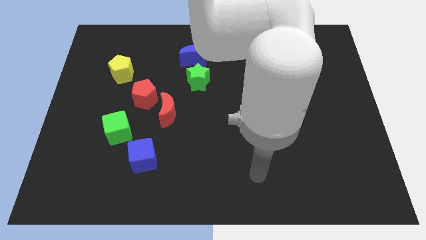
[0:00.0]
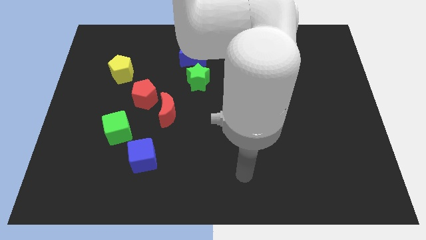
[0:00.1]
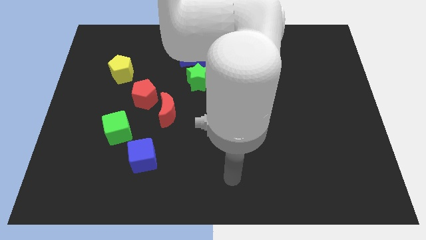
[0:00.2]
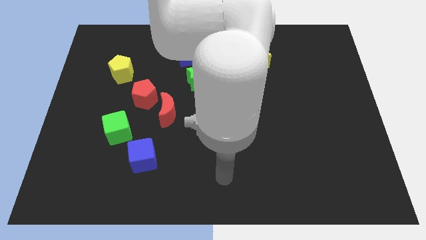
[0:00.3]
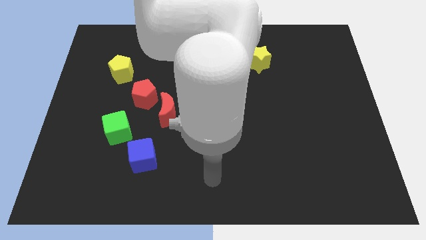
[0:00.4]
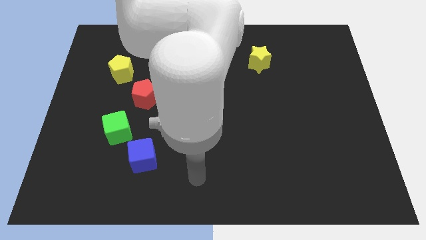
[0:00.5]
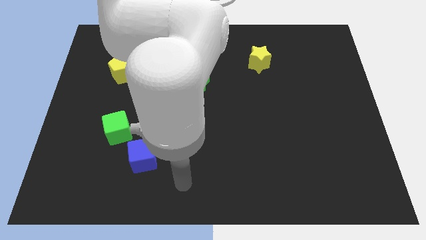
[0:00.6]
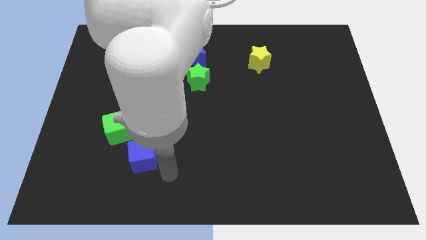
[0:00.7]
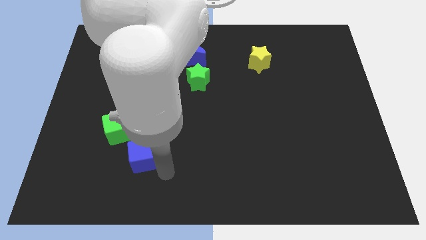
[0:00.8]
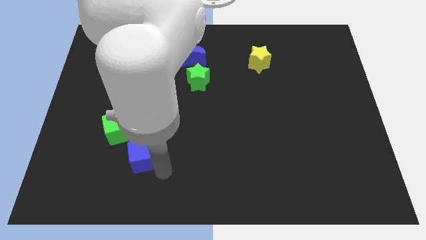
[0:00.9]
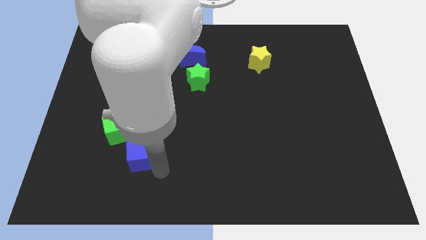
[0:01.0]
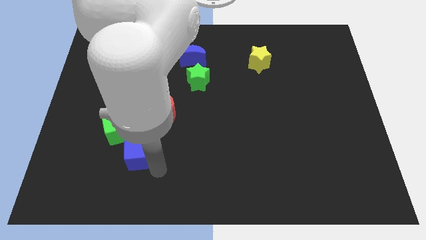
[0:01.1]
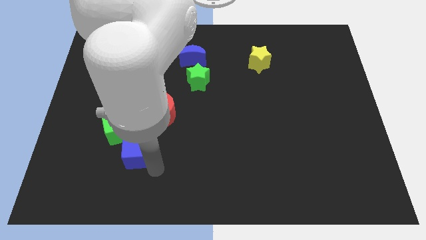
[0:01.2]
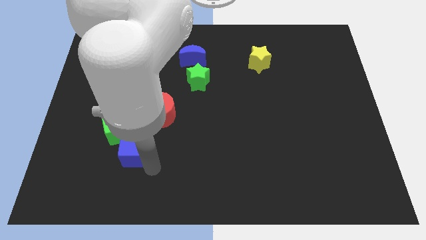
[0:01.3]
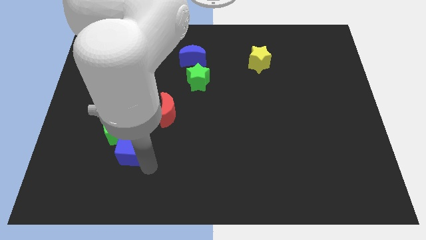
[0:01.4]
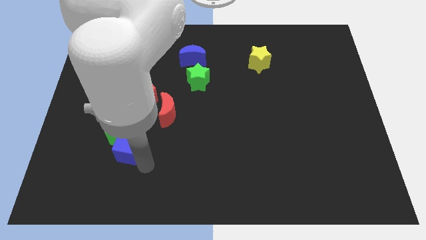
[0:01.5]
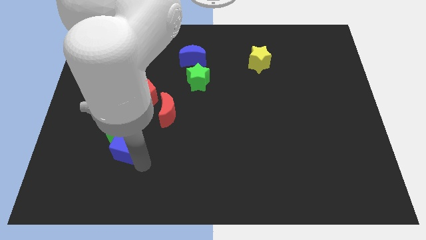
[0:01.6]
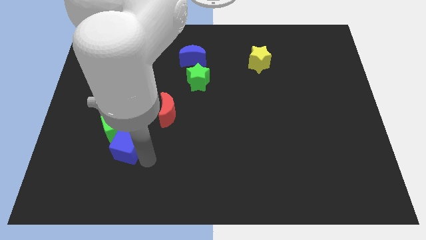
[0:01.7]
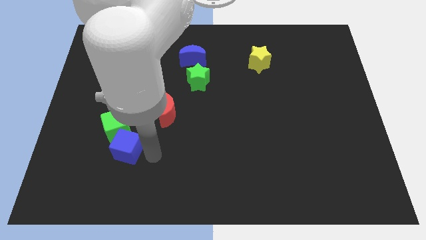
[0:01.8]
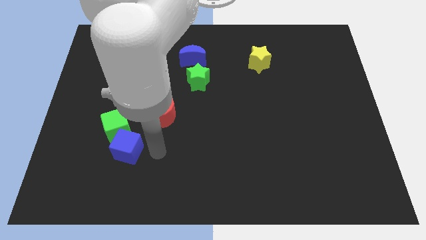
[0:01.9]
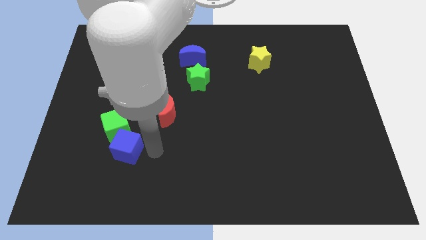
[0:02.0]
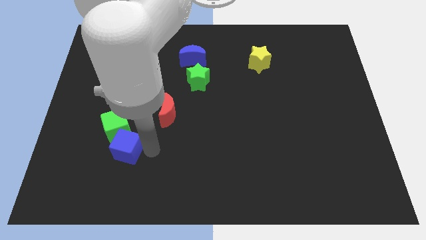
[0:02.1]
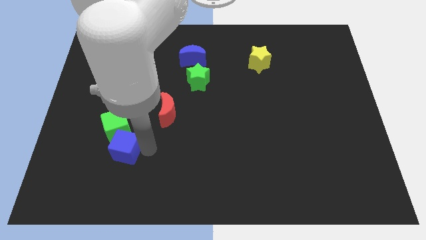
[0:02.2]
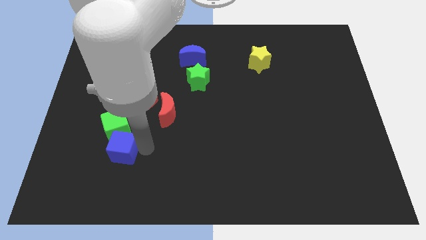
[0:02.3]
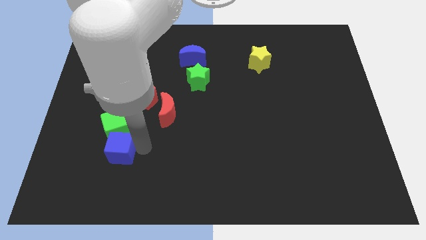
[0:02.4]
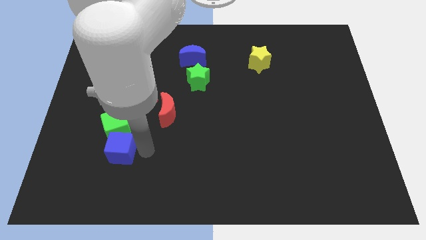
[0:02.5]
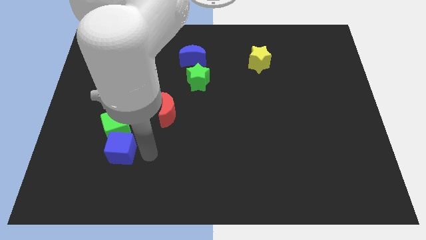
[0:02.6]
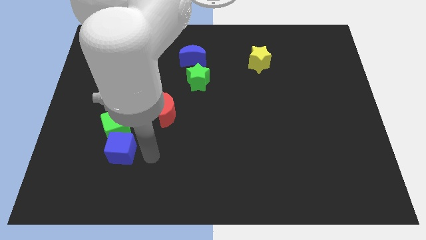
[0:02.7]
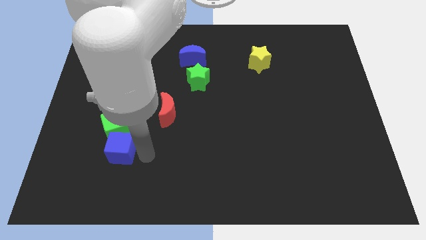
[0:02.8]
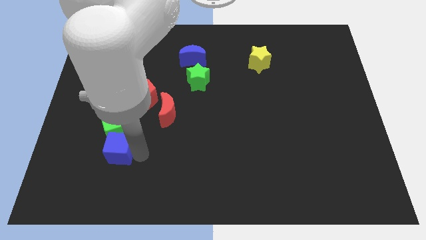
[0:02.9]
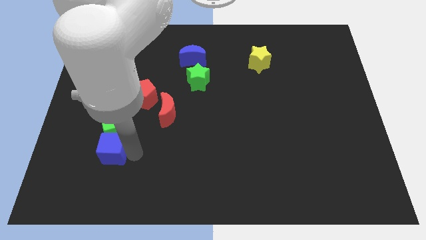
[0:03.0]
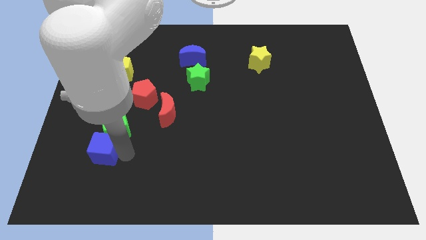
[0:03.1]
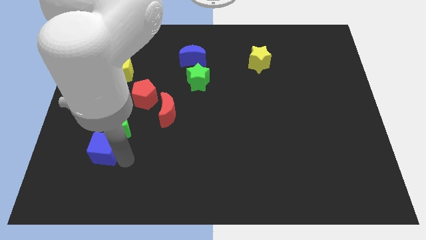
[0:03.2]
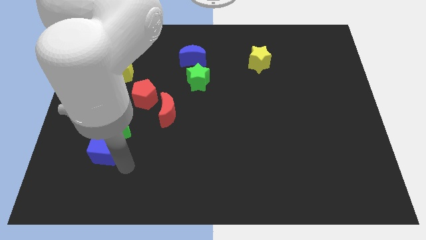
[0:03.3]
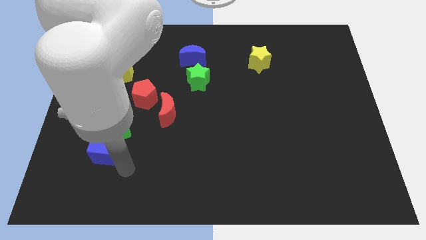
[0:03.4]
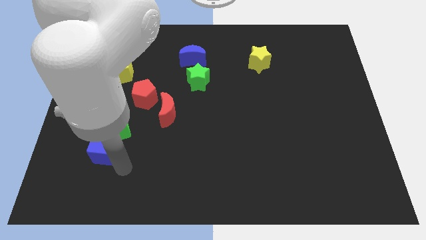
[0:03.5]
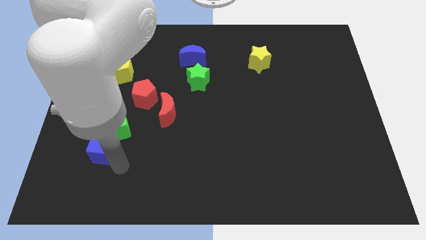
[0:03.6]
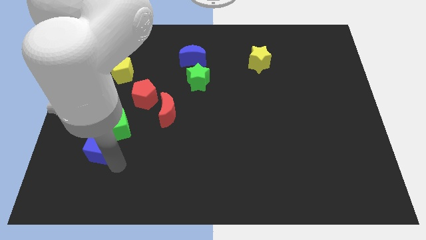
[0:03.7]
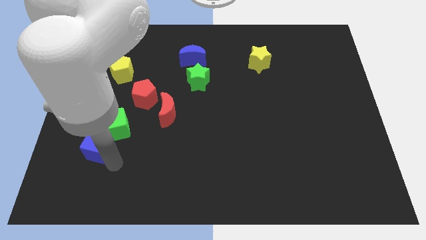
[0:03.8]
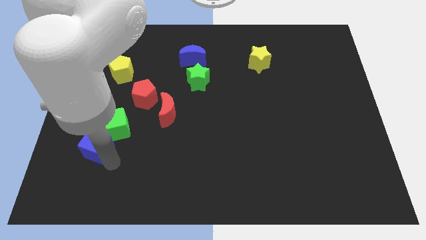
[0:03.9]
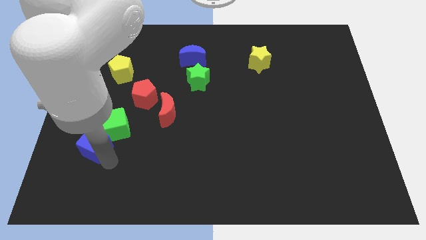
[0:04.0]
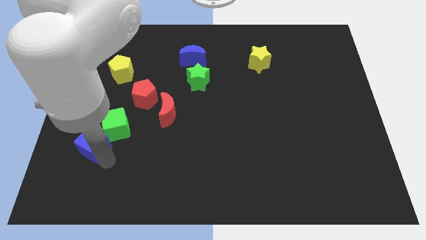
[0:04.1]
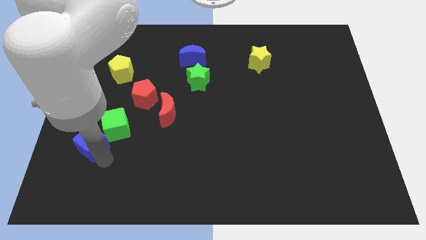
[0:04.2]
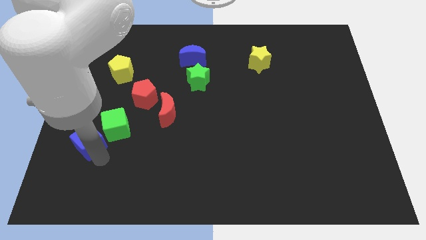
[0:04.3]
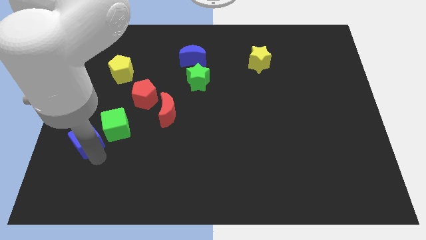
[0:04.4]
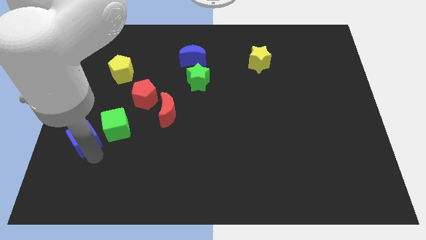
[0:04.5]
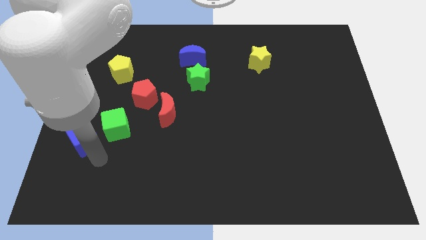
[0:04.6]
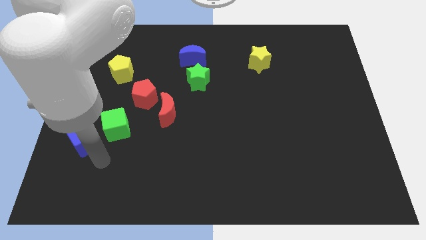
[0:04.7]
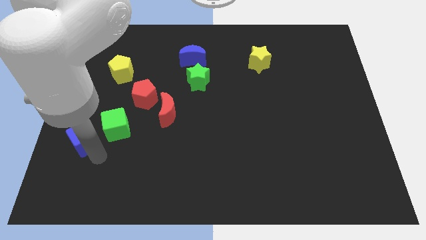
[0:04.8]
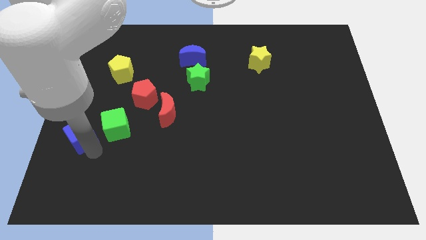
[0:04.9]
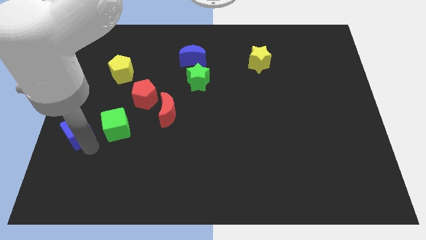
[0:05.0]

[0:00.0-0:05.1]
slide the blue cube to the left side

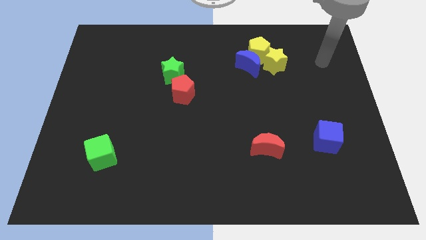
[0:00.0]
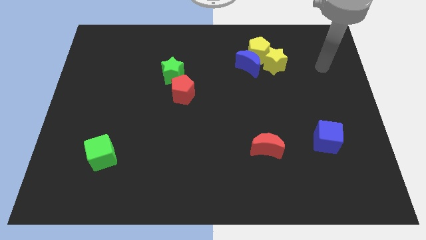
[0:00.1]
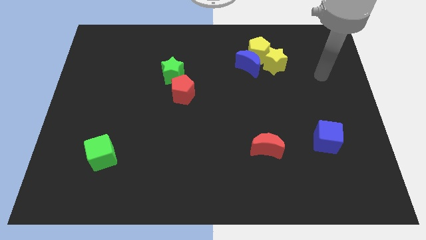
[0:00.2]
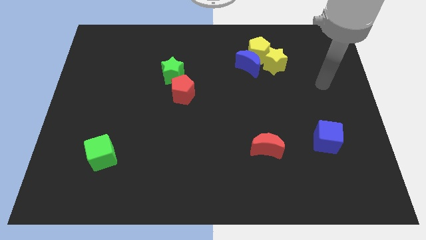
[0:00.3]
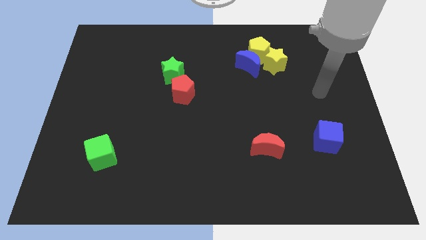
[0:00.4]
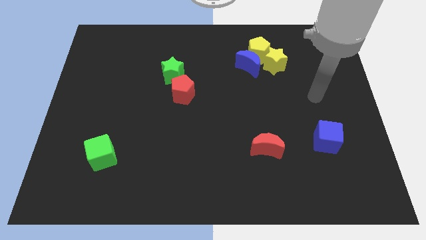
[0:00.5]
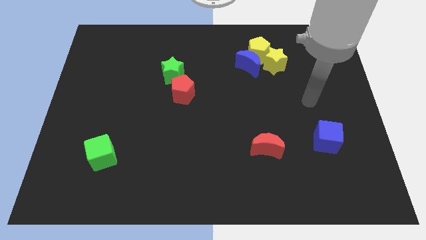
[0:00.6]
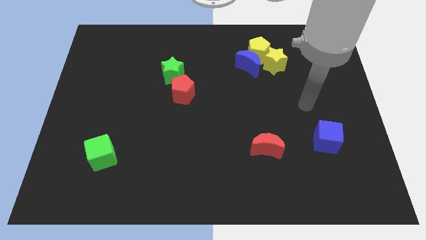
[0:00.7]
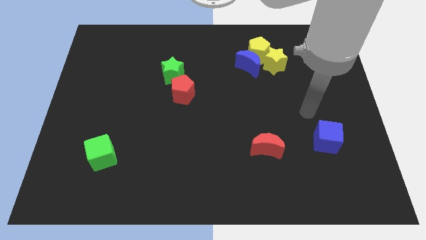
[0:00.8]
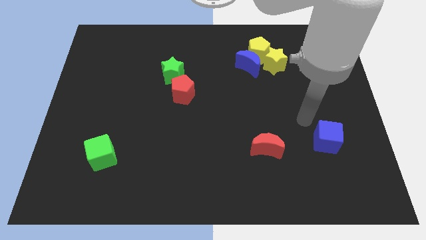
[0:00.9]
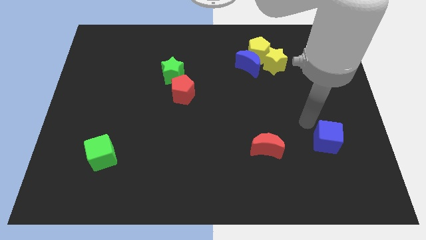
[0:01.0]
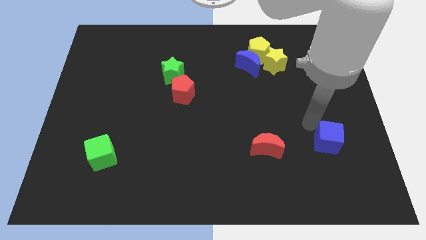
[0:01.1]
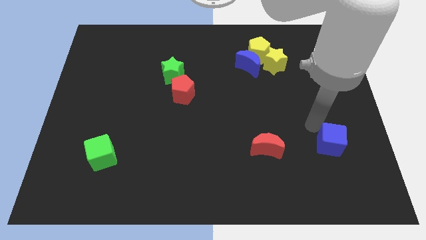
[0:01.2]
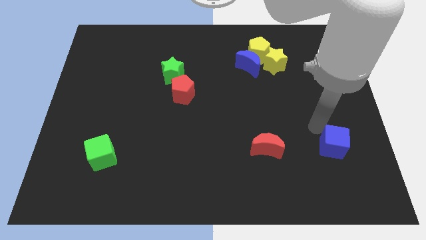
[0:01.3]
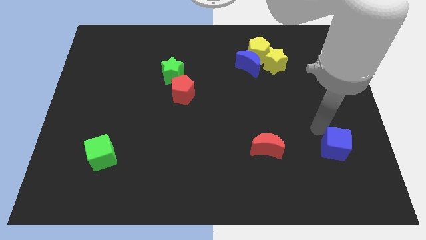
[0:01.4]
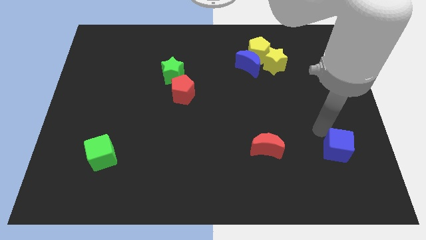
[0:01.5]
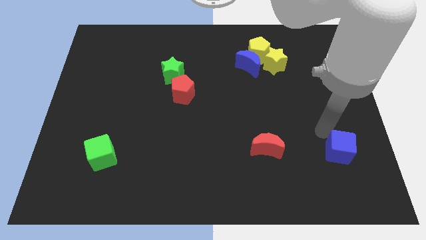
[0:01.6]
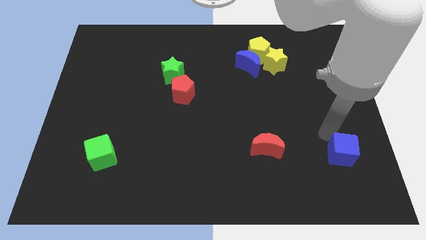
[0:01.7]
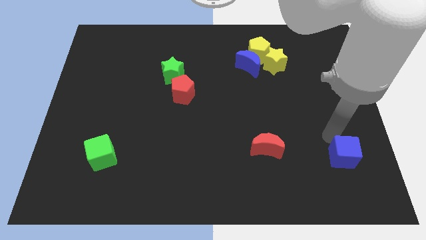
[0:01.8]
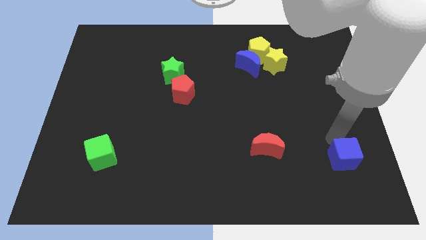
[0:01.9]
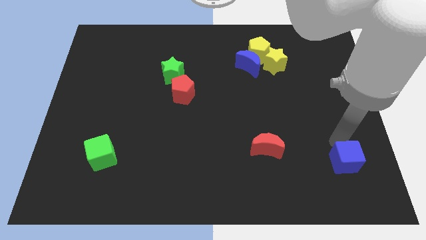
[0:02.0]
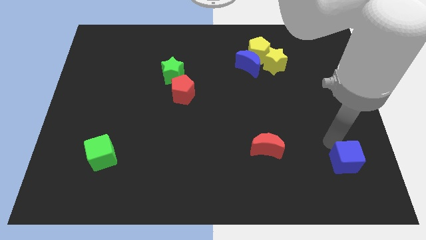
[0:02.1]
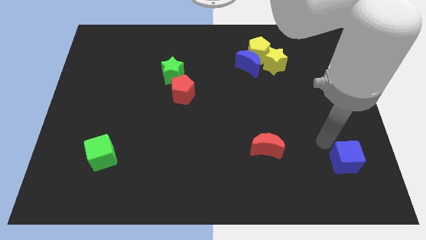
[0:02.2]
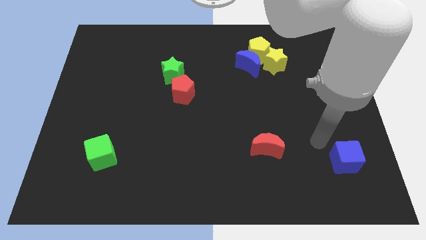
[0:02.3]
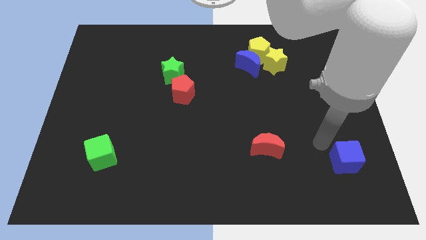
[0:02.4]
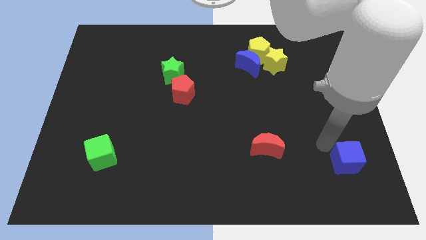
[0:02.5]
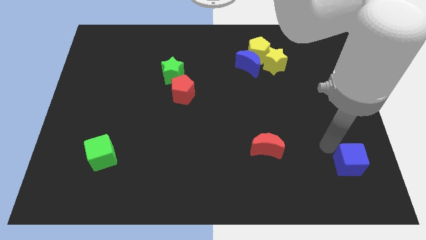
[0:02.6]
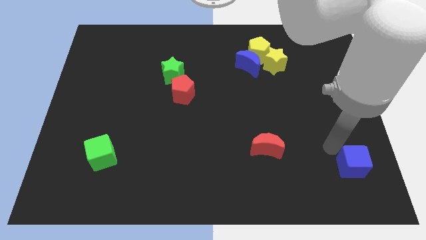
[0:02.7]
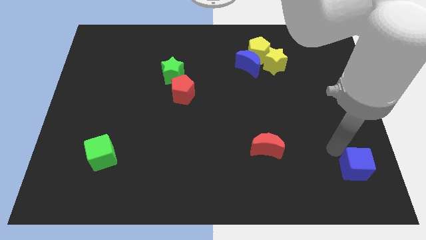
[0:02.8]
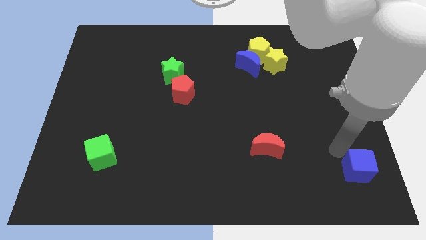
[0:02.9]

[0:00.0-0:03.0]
put the blue cube to the bottom right of the board
